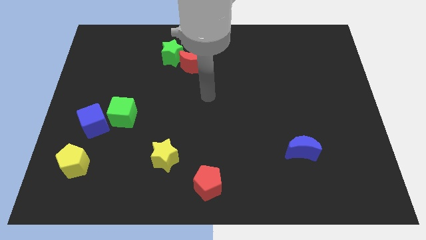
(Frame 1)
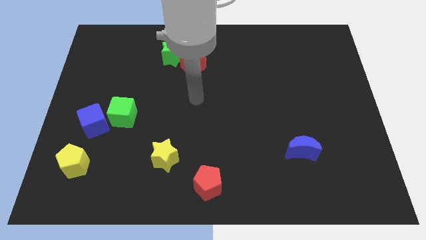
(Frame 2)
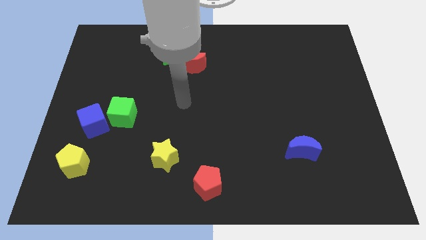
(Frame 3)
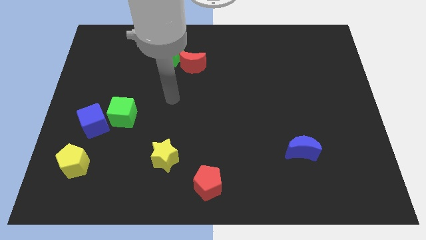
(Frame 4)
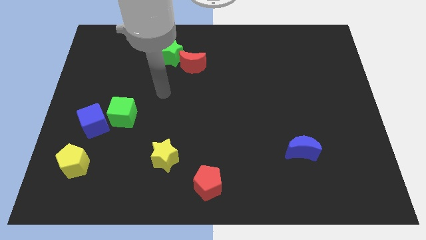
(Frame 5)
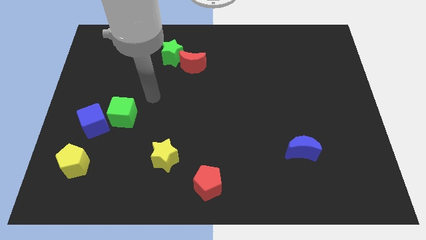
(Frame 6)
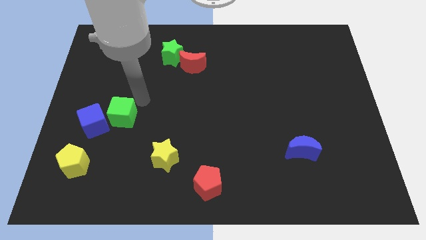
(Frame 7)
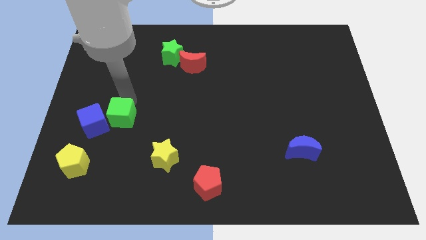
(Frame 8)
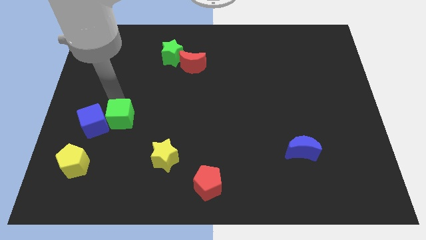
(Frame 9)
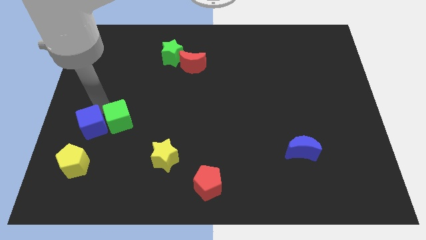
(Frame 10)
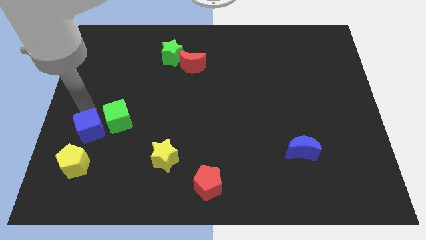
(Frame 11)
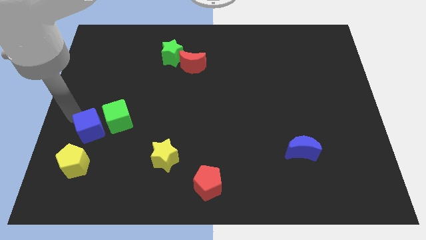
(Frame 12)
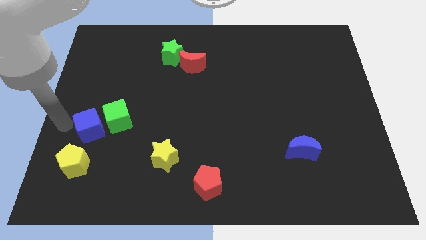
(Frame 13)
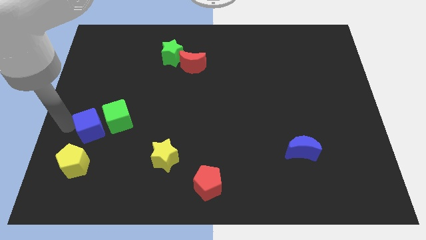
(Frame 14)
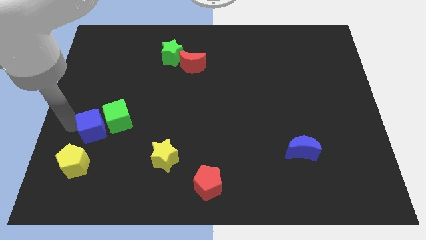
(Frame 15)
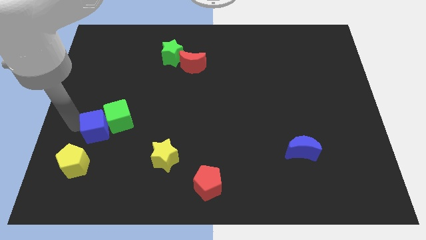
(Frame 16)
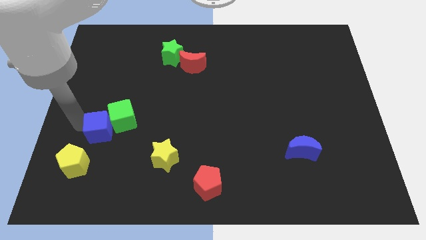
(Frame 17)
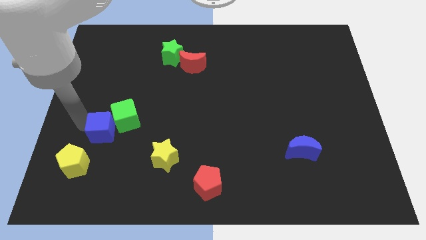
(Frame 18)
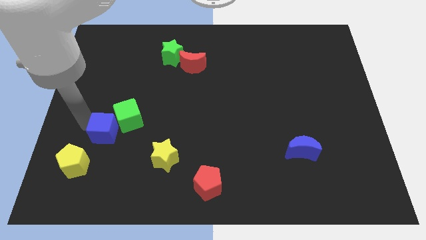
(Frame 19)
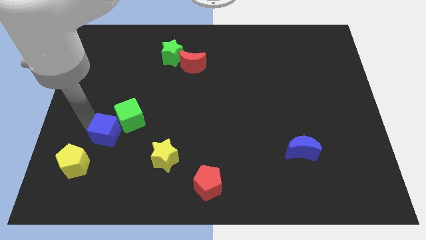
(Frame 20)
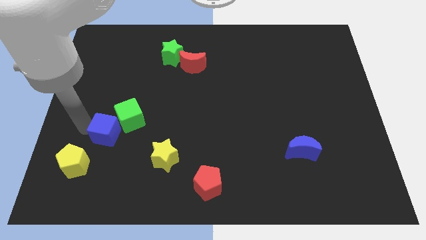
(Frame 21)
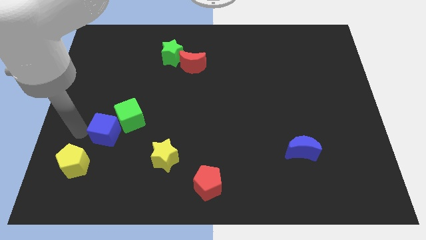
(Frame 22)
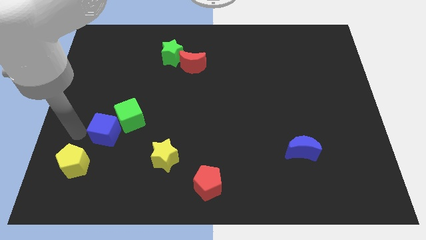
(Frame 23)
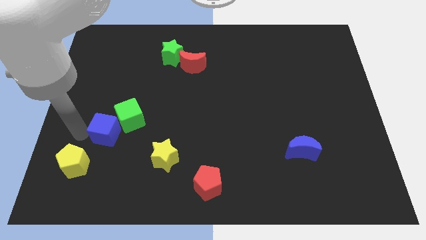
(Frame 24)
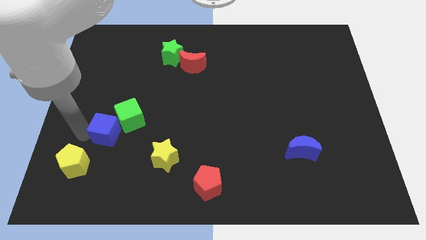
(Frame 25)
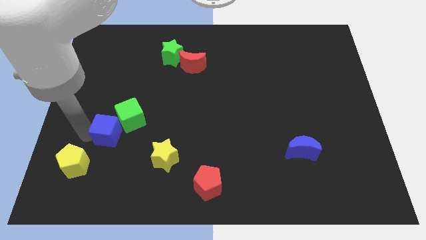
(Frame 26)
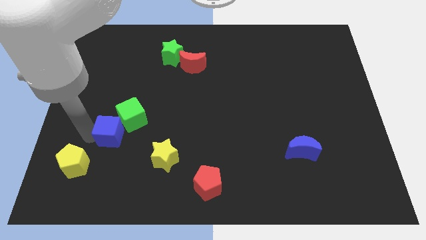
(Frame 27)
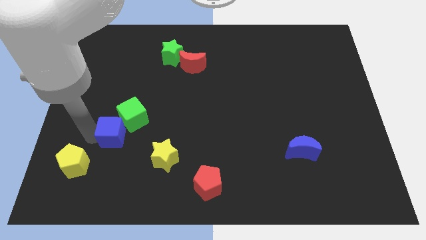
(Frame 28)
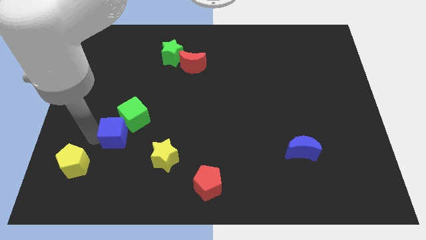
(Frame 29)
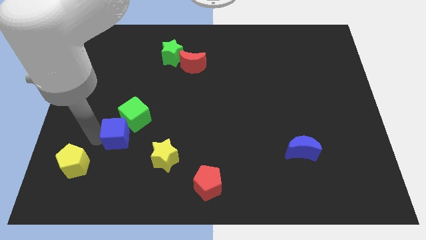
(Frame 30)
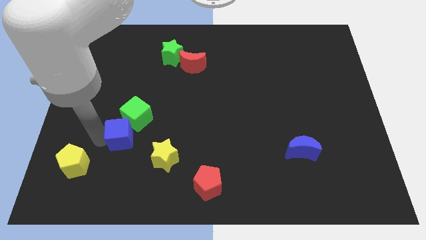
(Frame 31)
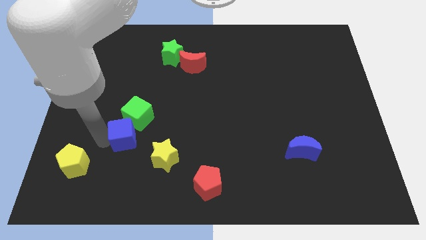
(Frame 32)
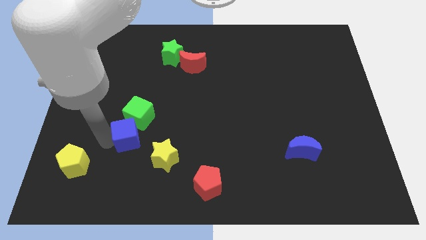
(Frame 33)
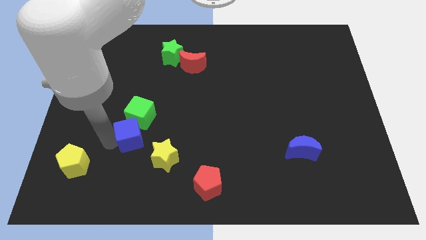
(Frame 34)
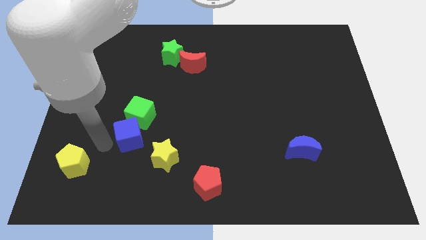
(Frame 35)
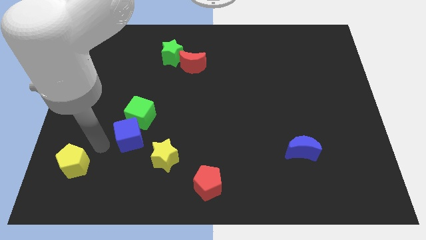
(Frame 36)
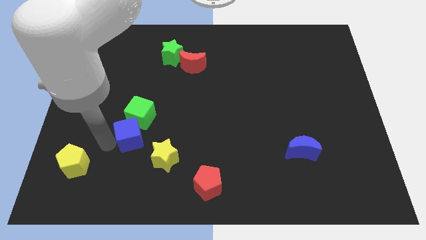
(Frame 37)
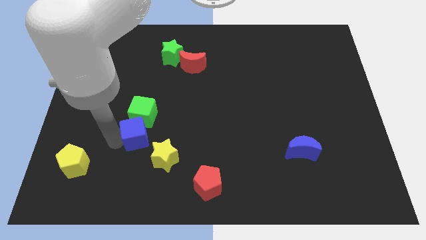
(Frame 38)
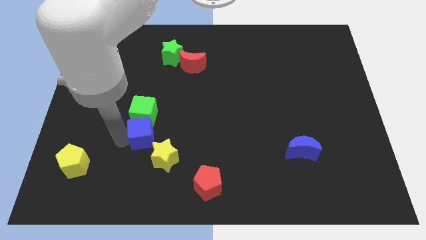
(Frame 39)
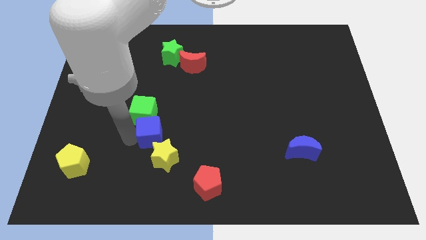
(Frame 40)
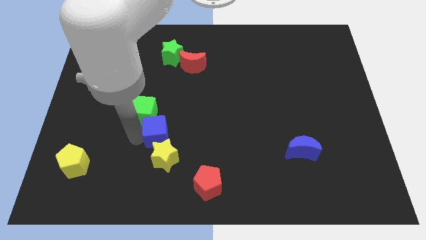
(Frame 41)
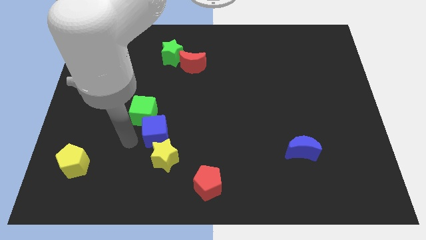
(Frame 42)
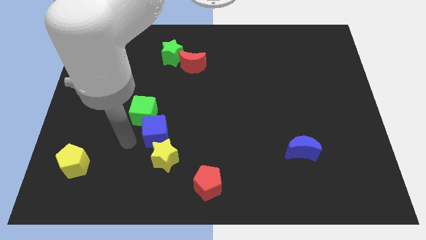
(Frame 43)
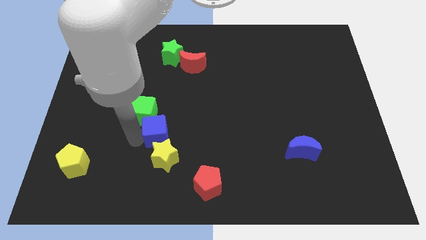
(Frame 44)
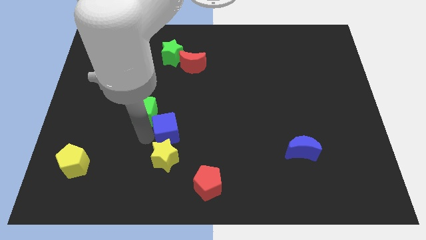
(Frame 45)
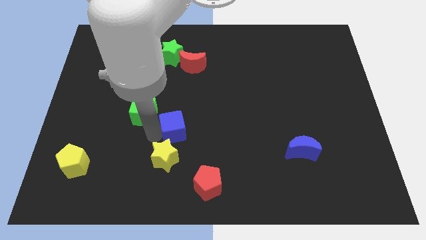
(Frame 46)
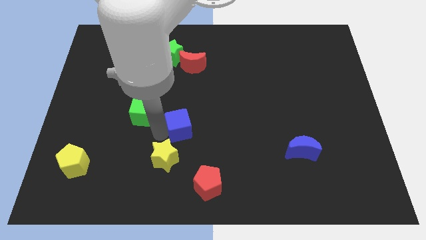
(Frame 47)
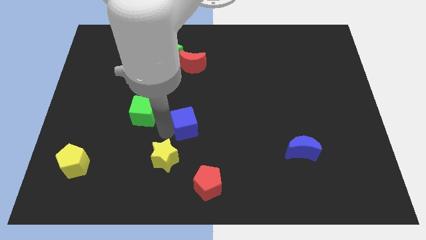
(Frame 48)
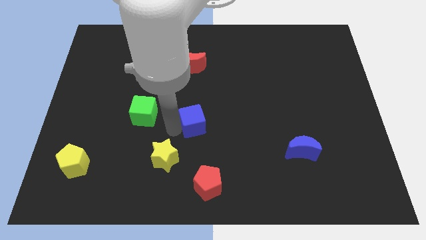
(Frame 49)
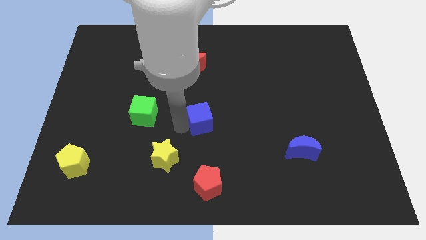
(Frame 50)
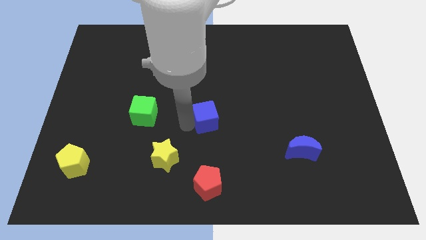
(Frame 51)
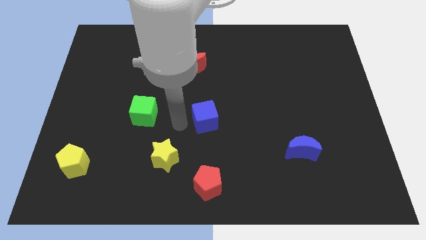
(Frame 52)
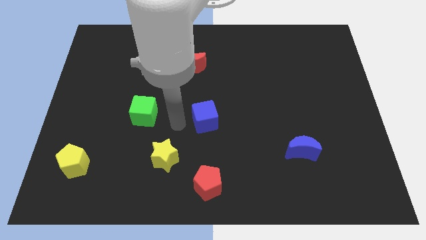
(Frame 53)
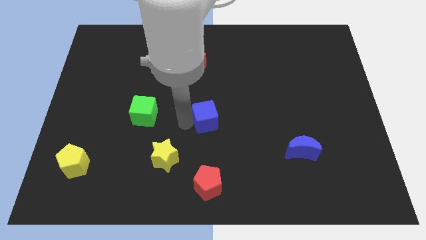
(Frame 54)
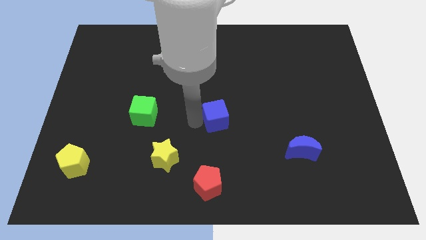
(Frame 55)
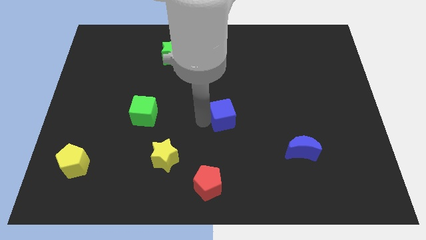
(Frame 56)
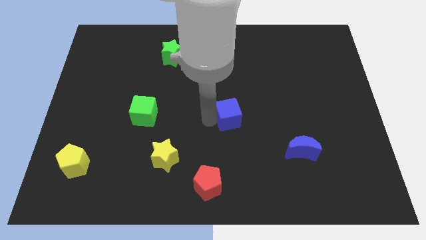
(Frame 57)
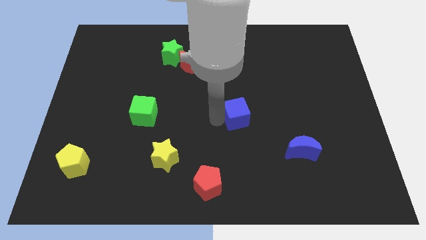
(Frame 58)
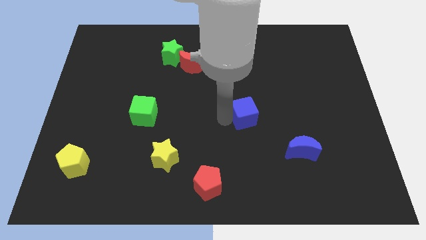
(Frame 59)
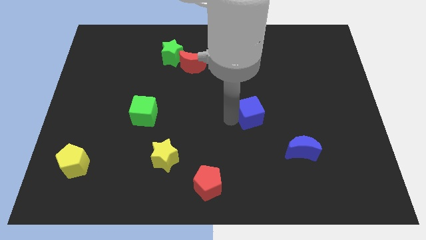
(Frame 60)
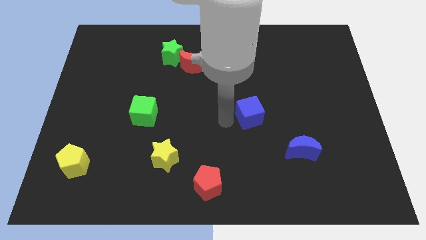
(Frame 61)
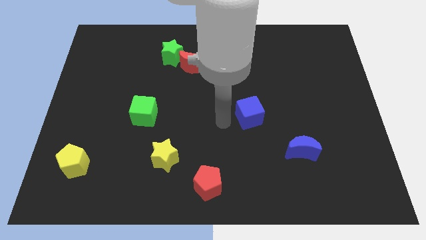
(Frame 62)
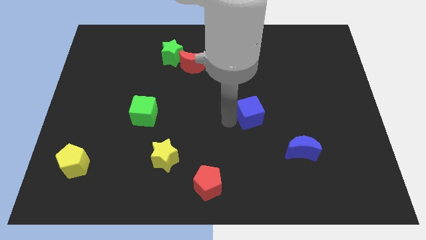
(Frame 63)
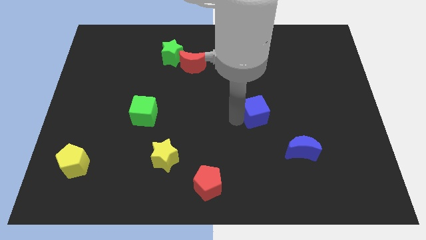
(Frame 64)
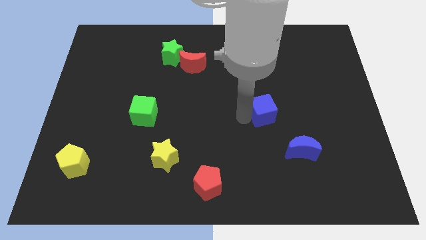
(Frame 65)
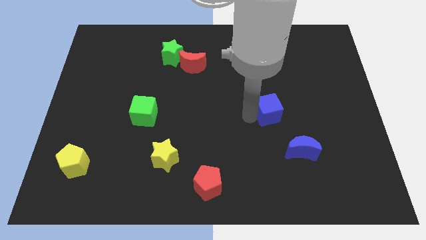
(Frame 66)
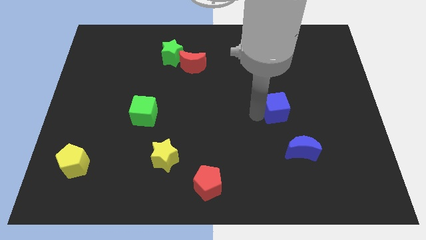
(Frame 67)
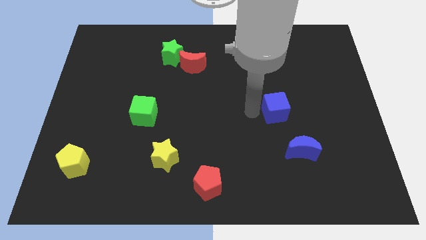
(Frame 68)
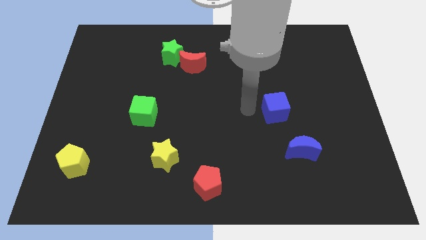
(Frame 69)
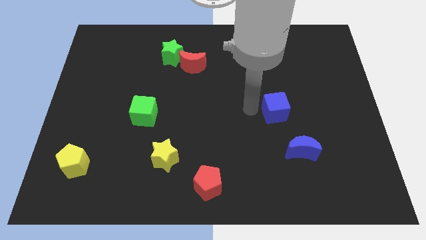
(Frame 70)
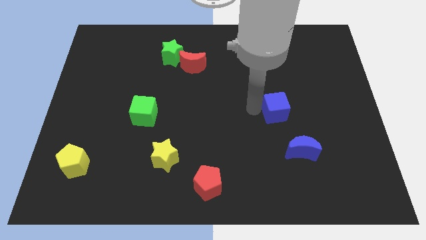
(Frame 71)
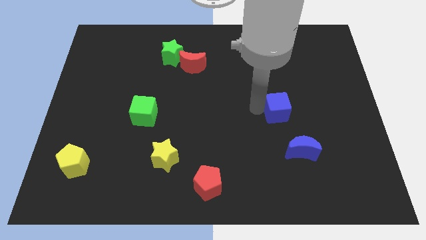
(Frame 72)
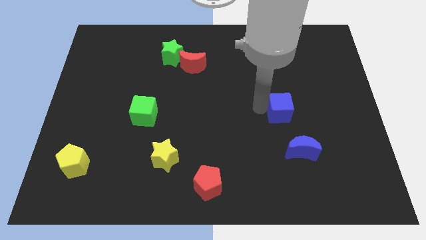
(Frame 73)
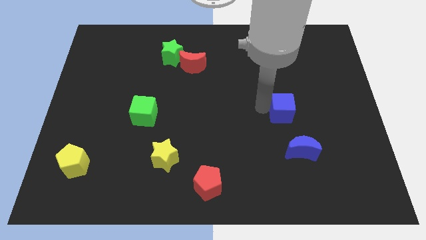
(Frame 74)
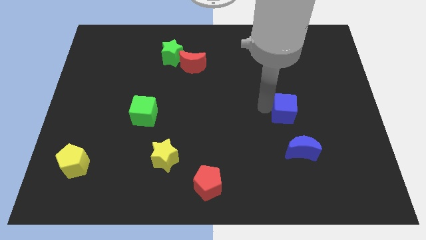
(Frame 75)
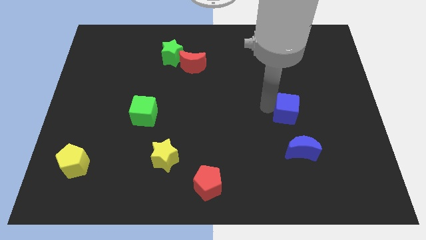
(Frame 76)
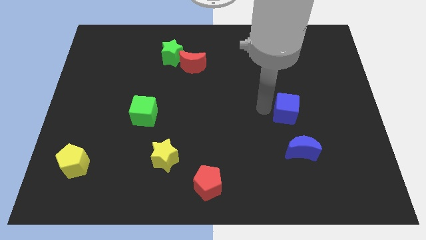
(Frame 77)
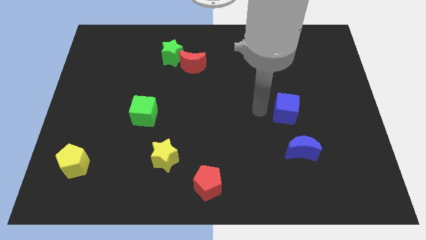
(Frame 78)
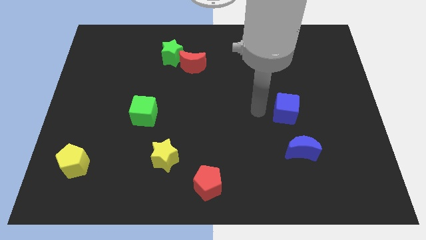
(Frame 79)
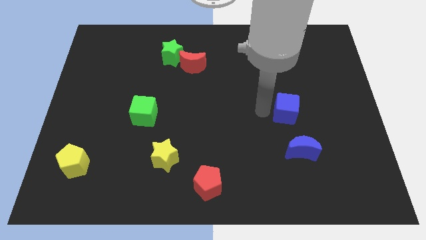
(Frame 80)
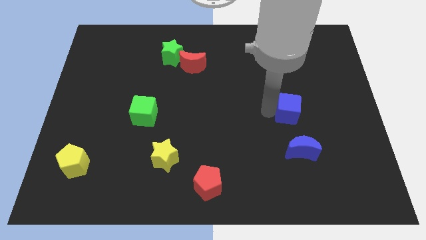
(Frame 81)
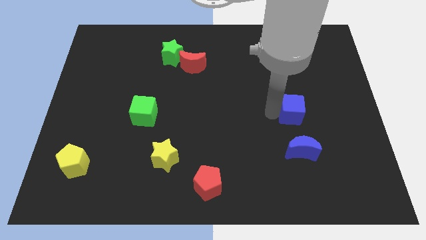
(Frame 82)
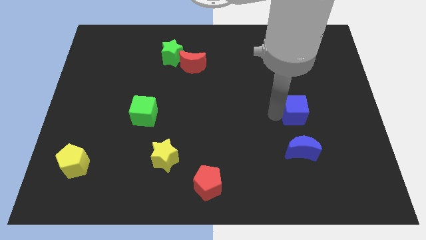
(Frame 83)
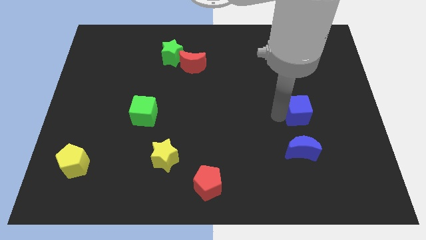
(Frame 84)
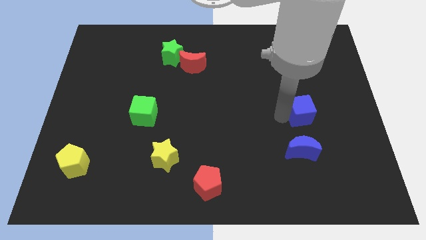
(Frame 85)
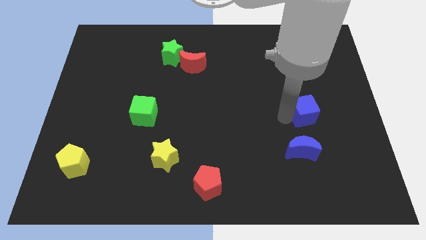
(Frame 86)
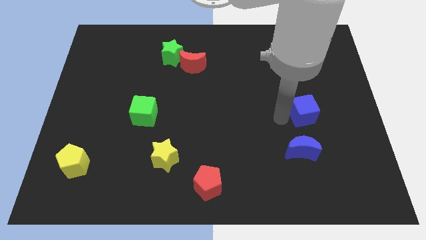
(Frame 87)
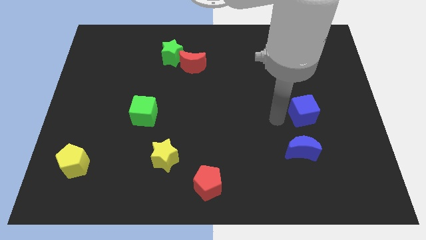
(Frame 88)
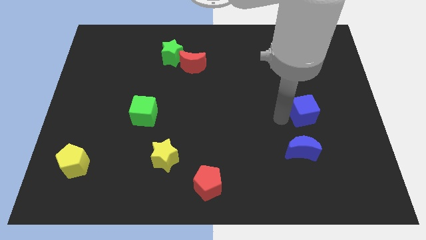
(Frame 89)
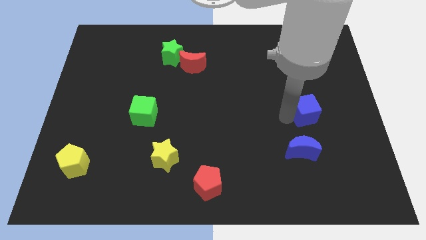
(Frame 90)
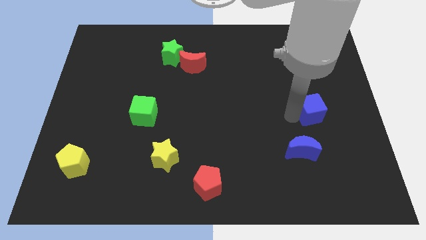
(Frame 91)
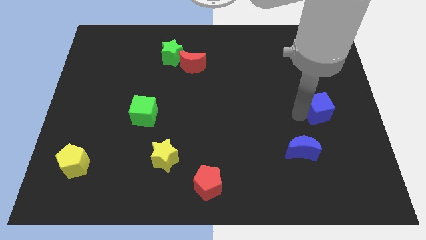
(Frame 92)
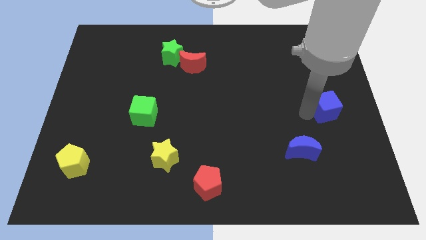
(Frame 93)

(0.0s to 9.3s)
move the blue cube to the right side of the board
